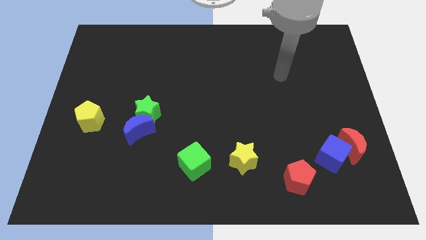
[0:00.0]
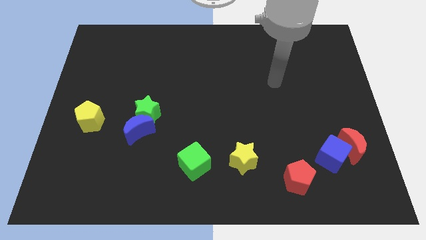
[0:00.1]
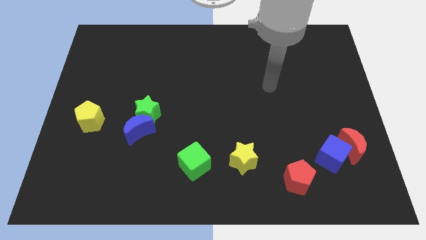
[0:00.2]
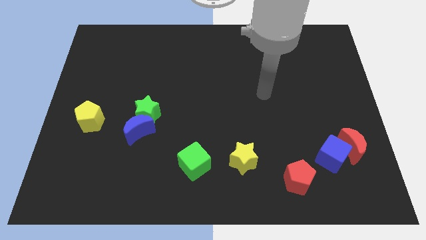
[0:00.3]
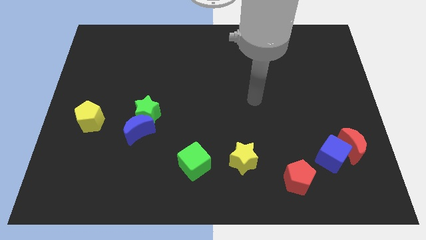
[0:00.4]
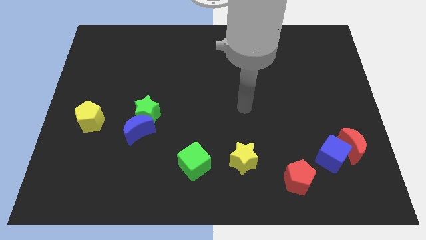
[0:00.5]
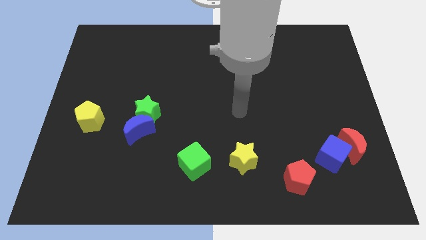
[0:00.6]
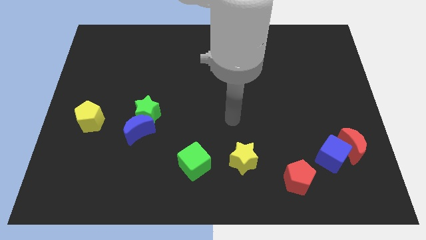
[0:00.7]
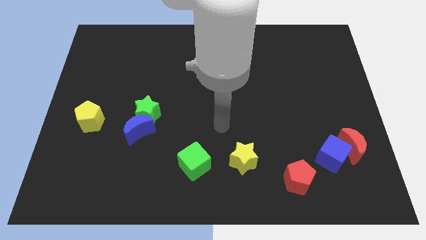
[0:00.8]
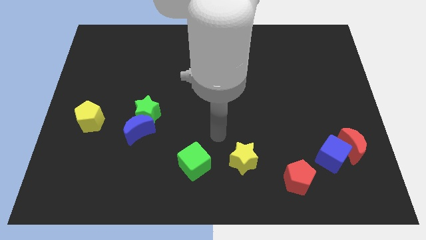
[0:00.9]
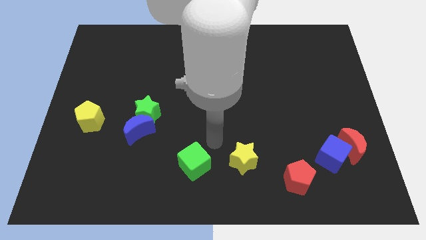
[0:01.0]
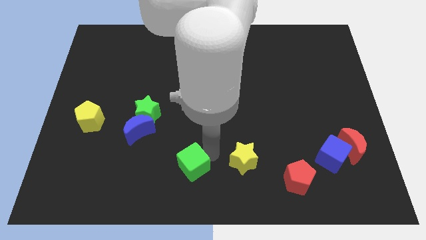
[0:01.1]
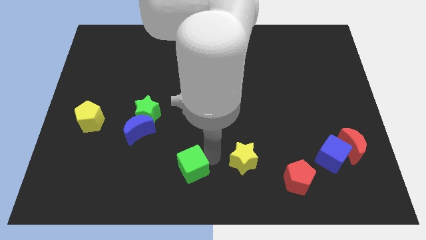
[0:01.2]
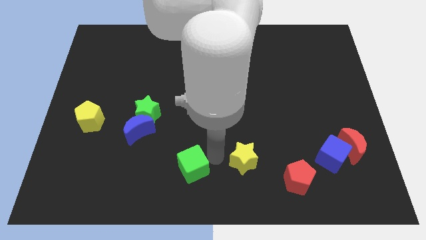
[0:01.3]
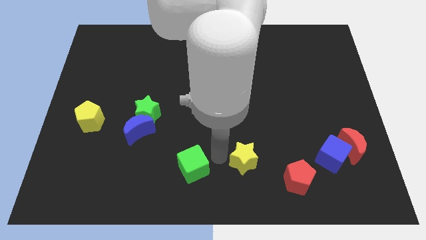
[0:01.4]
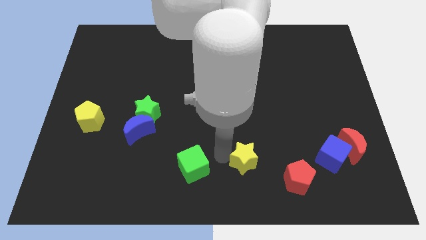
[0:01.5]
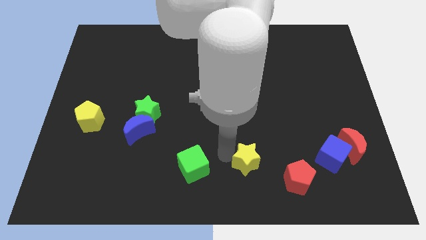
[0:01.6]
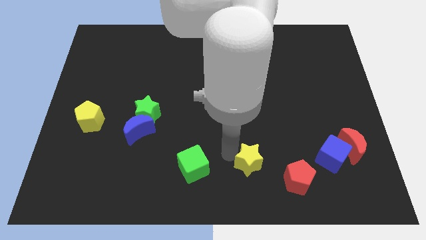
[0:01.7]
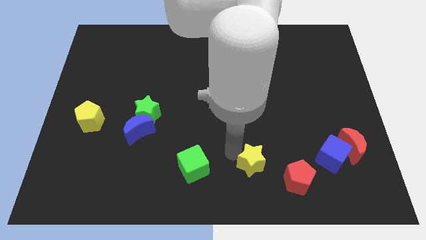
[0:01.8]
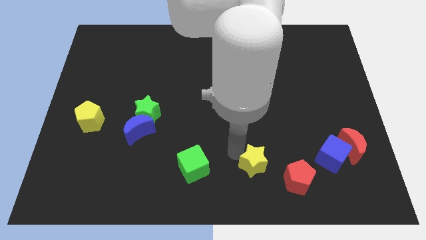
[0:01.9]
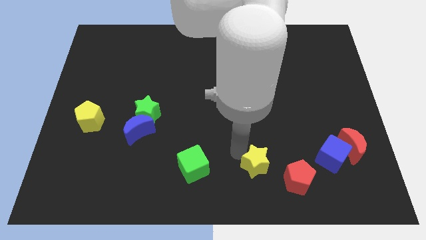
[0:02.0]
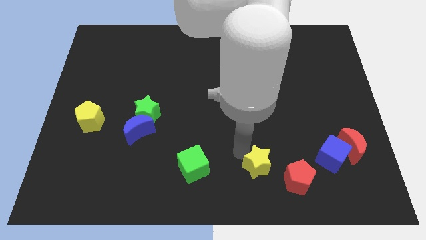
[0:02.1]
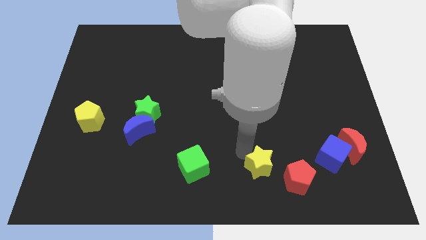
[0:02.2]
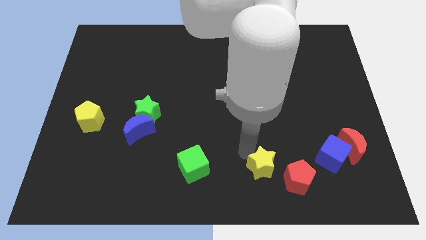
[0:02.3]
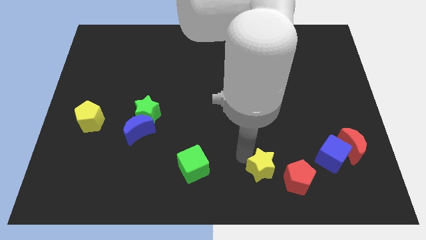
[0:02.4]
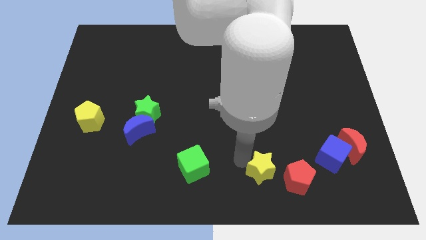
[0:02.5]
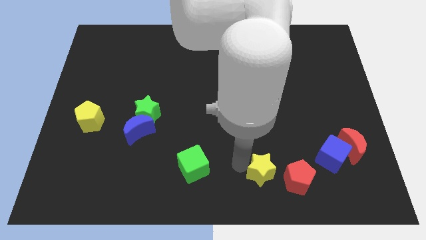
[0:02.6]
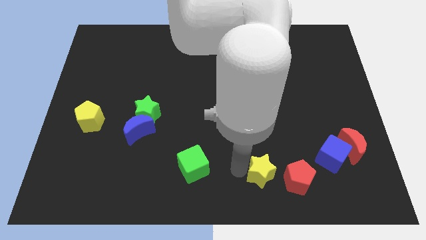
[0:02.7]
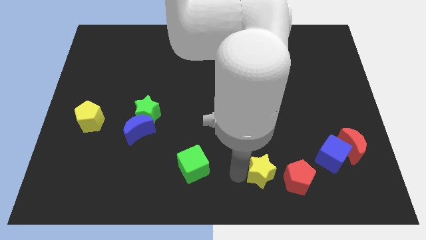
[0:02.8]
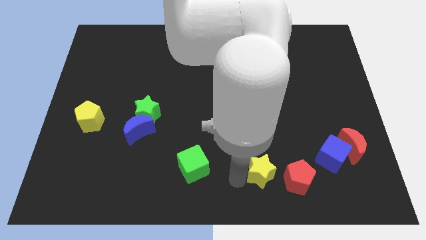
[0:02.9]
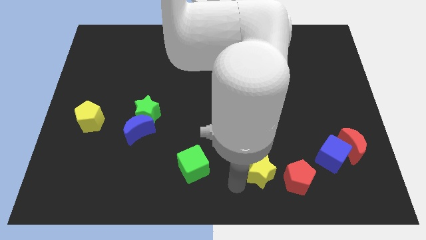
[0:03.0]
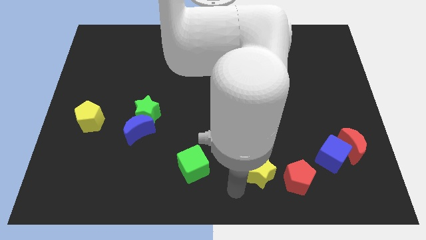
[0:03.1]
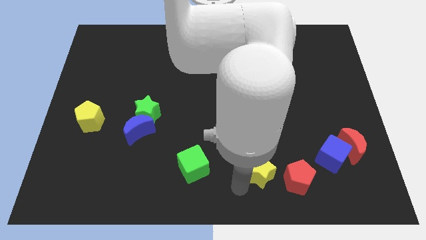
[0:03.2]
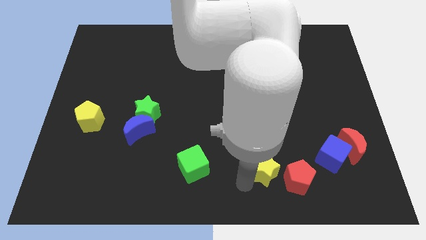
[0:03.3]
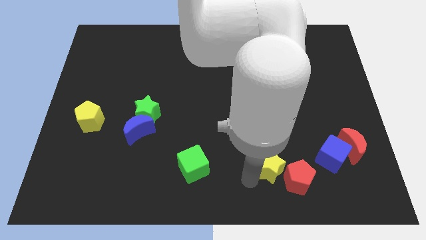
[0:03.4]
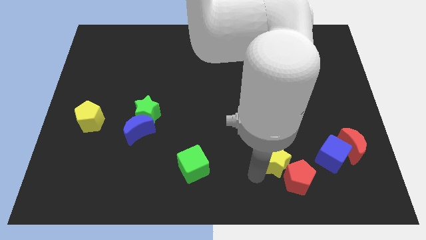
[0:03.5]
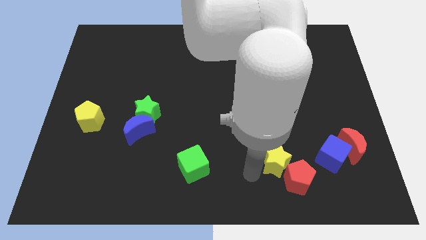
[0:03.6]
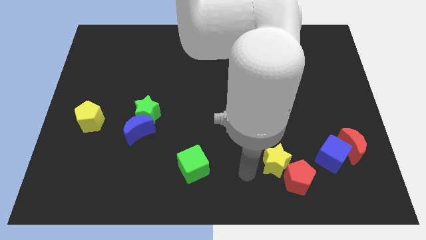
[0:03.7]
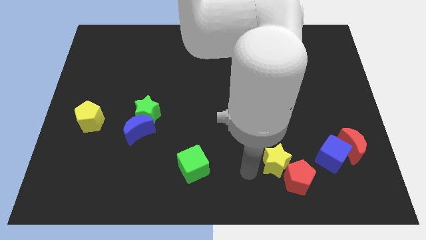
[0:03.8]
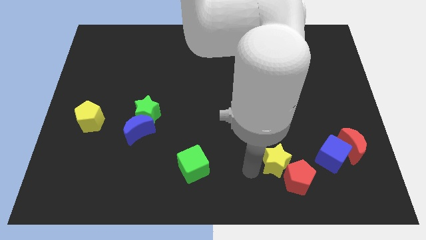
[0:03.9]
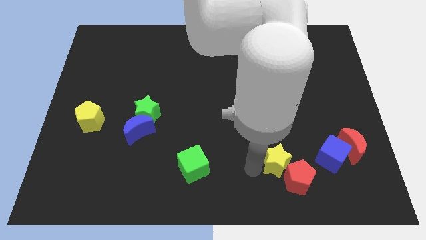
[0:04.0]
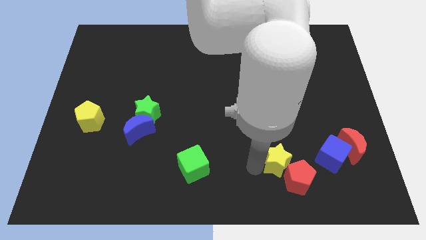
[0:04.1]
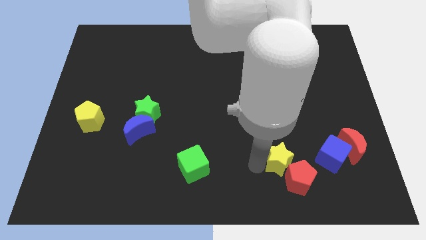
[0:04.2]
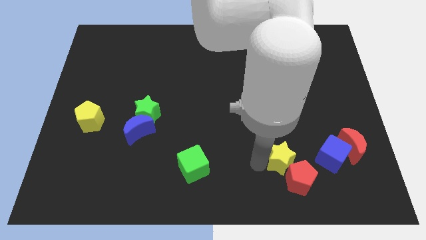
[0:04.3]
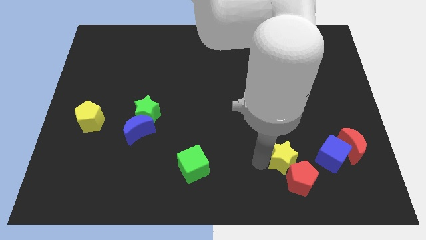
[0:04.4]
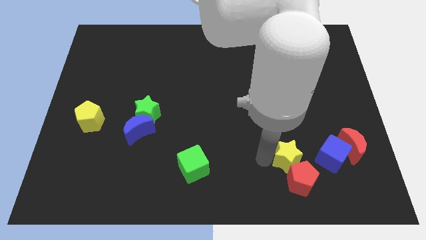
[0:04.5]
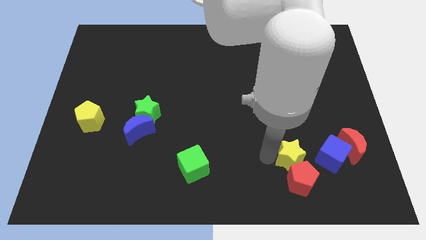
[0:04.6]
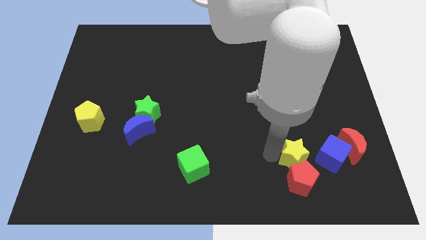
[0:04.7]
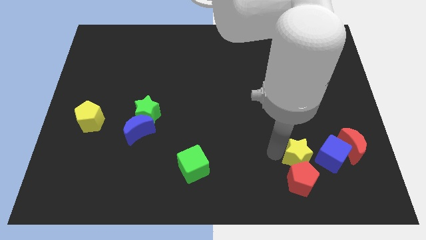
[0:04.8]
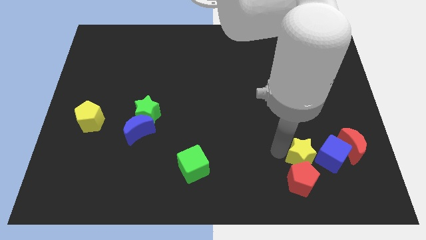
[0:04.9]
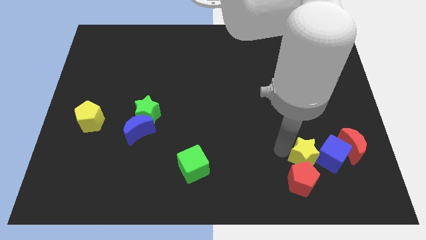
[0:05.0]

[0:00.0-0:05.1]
slide the yellow star towards the blue cube

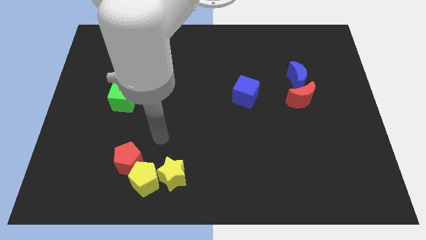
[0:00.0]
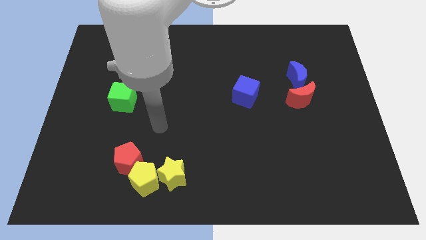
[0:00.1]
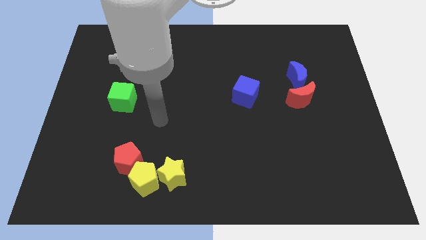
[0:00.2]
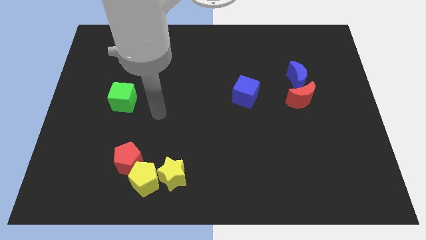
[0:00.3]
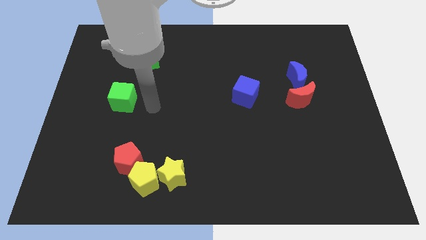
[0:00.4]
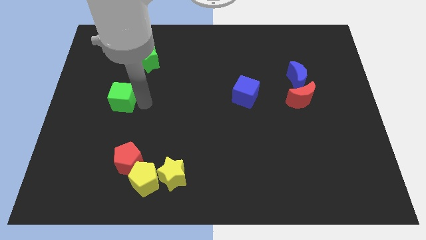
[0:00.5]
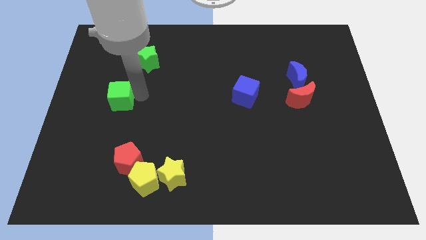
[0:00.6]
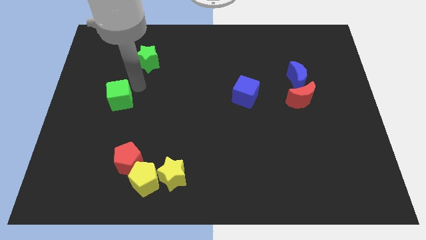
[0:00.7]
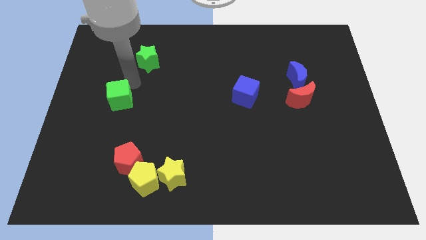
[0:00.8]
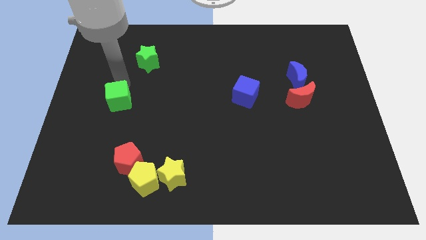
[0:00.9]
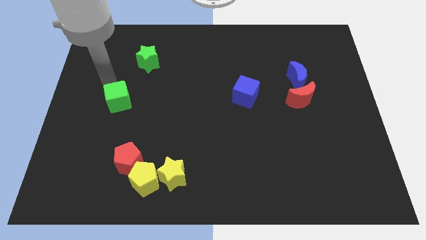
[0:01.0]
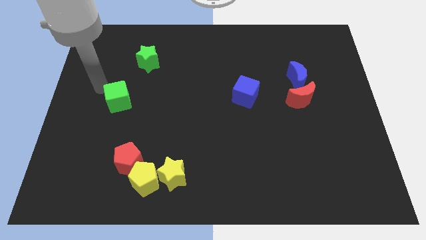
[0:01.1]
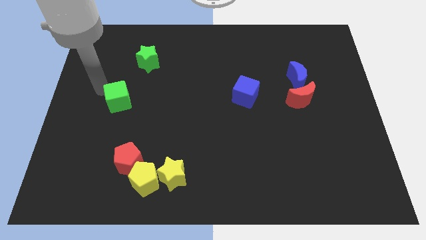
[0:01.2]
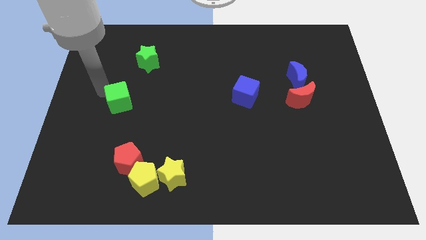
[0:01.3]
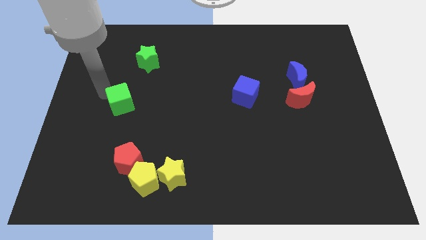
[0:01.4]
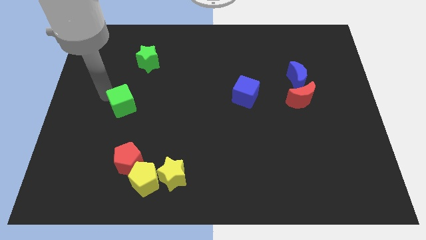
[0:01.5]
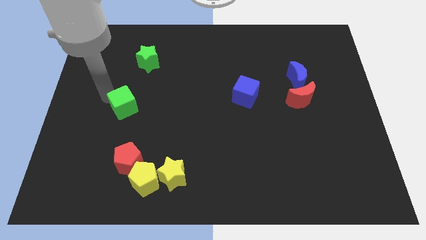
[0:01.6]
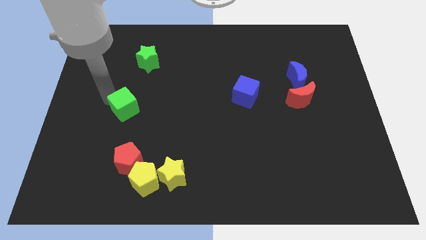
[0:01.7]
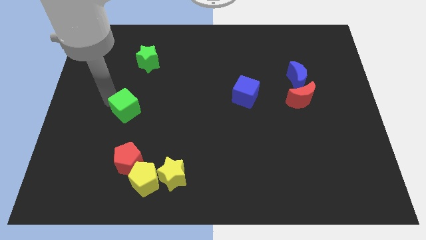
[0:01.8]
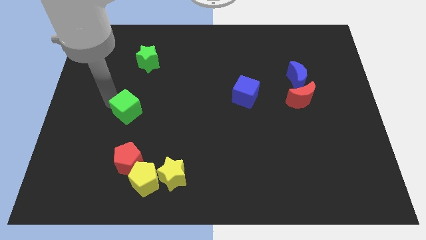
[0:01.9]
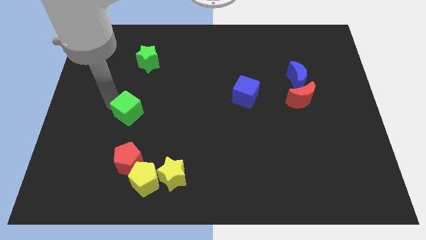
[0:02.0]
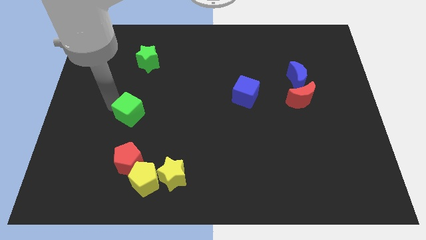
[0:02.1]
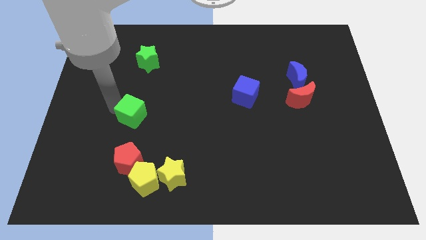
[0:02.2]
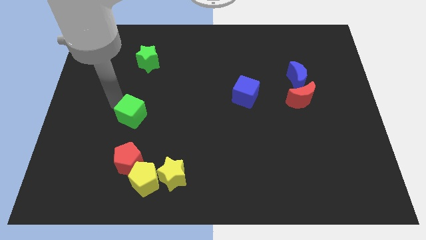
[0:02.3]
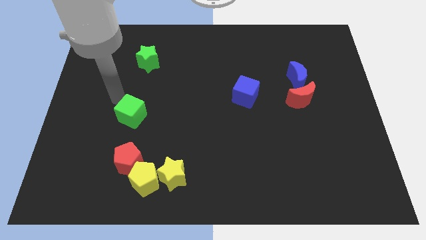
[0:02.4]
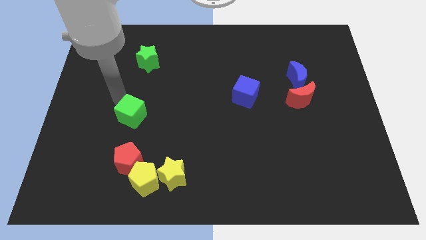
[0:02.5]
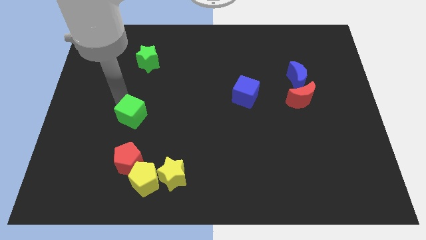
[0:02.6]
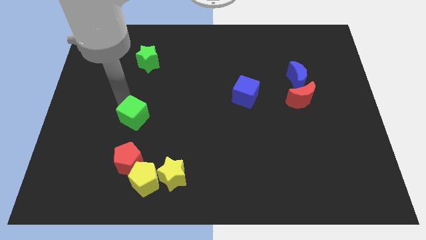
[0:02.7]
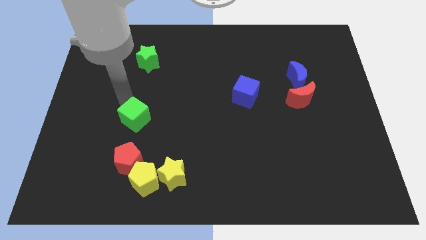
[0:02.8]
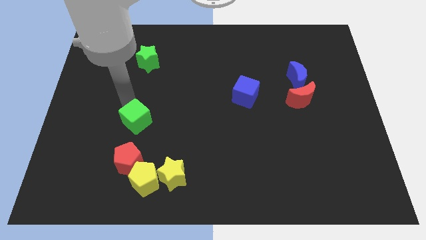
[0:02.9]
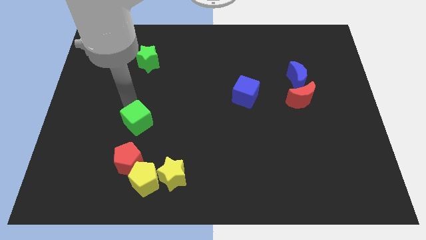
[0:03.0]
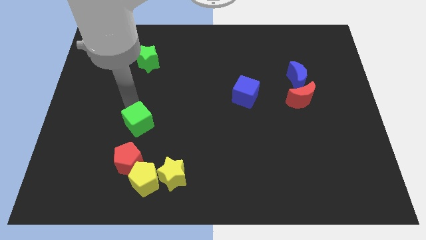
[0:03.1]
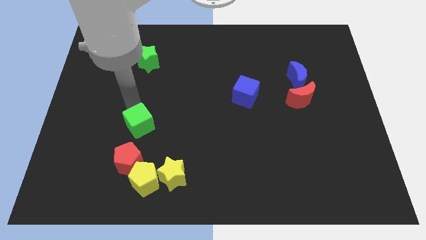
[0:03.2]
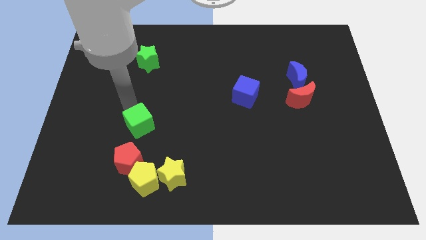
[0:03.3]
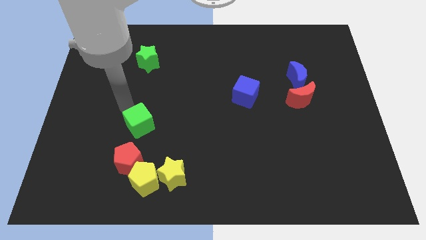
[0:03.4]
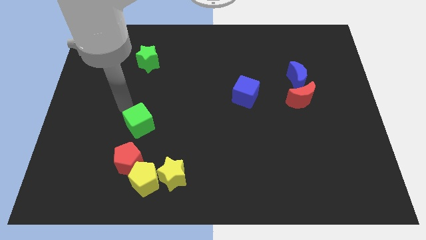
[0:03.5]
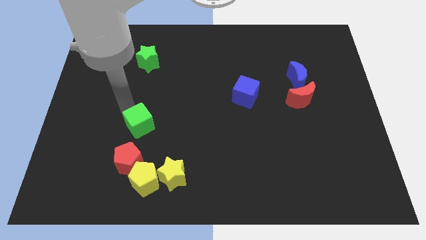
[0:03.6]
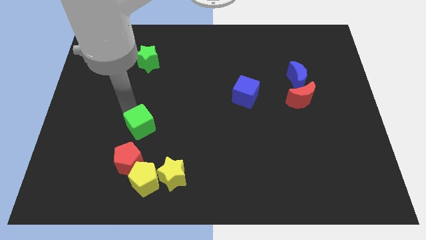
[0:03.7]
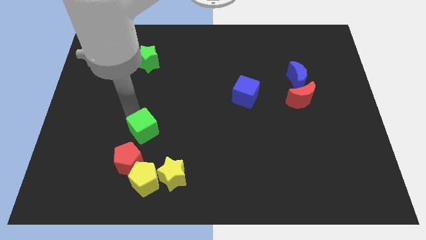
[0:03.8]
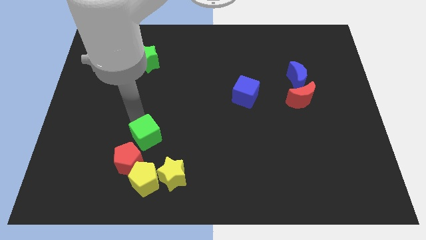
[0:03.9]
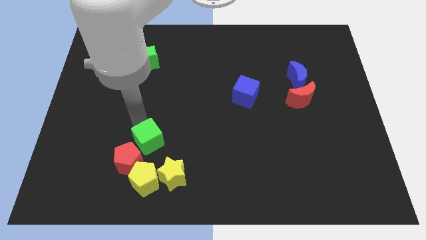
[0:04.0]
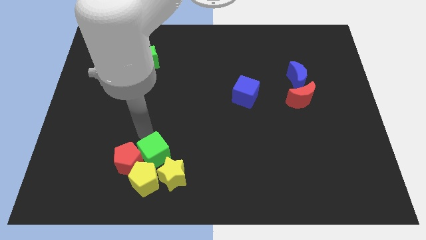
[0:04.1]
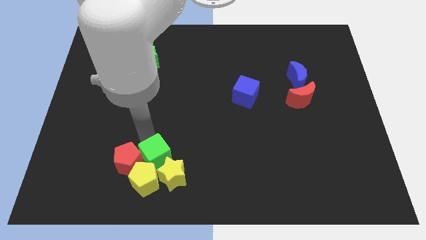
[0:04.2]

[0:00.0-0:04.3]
put the green cube to the yellow star
